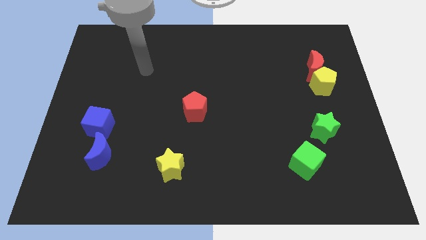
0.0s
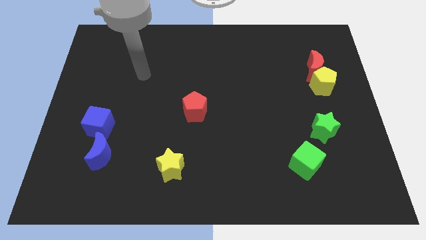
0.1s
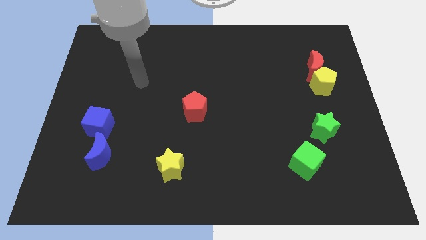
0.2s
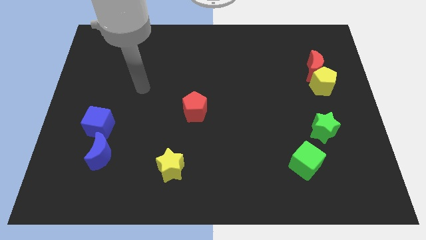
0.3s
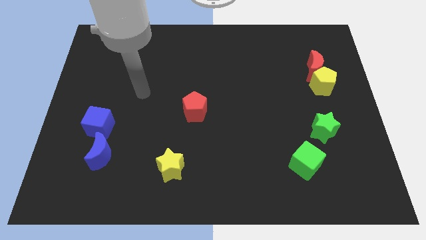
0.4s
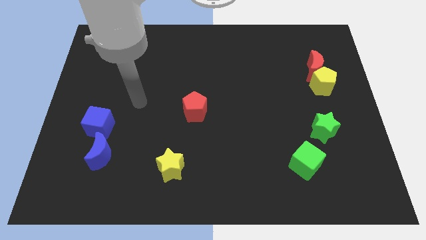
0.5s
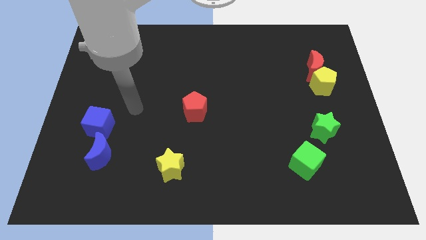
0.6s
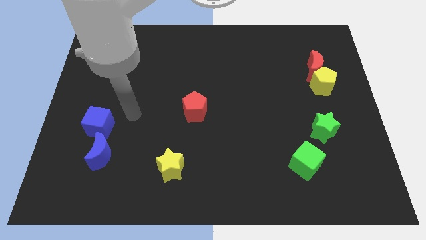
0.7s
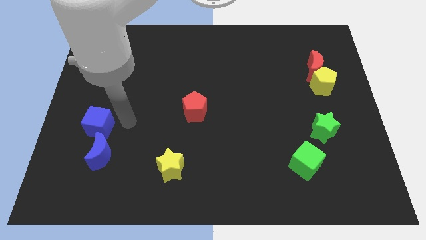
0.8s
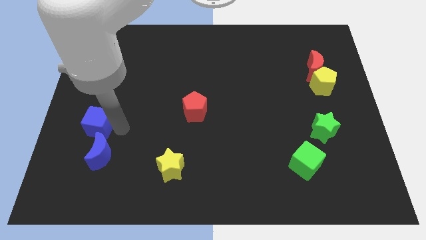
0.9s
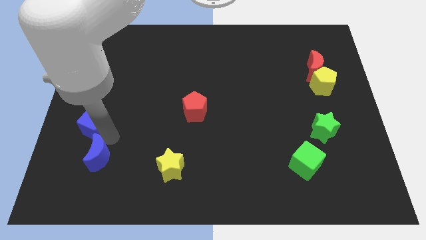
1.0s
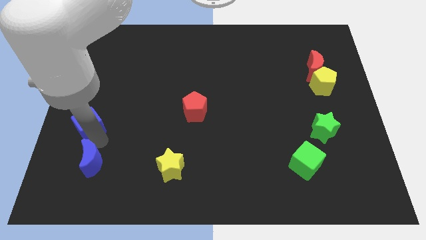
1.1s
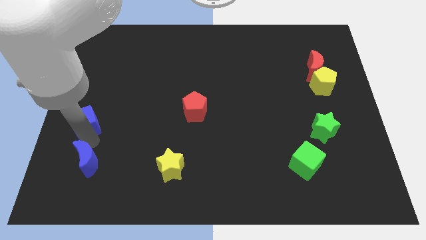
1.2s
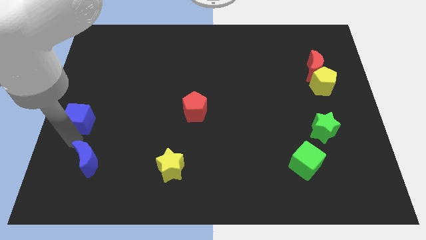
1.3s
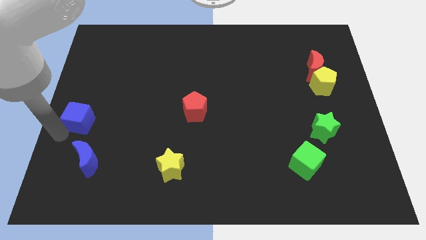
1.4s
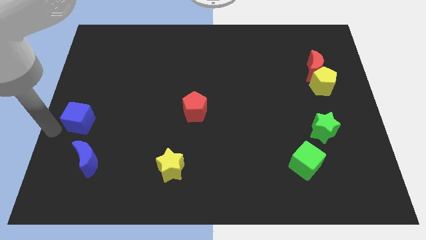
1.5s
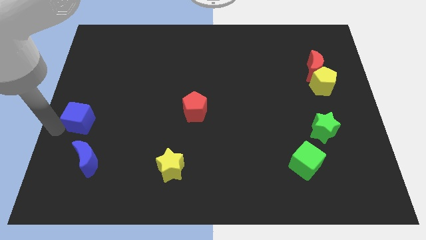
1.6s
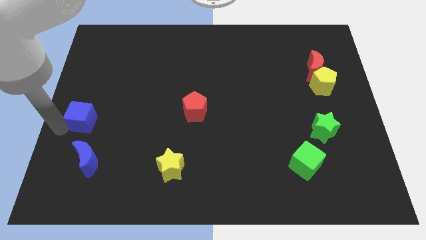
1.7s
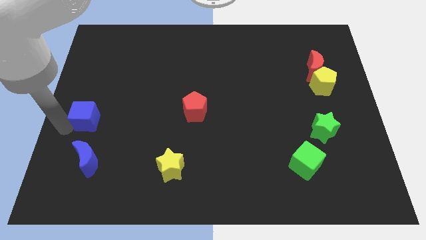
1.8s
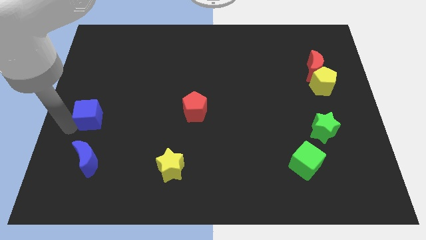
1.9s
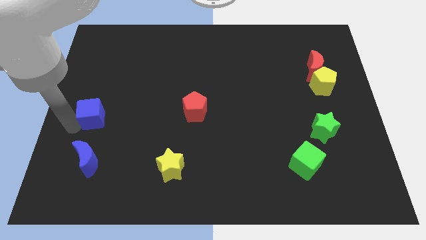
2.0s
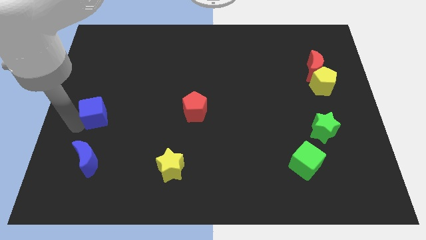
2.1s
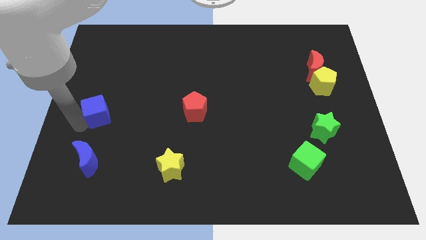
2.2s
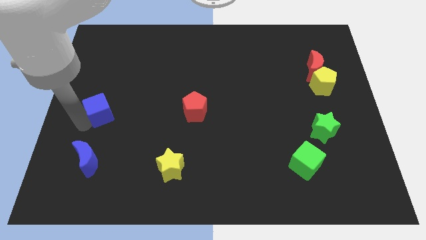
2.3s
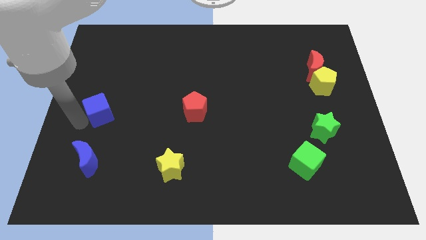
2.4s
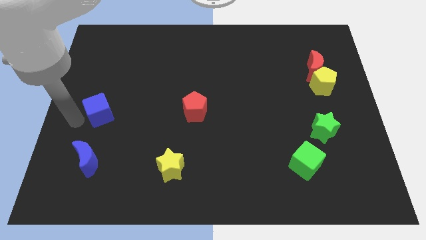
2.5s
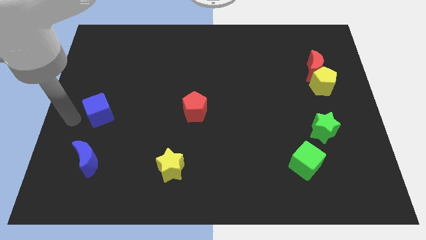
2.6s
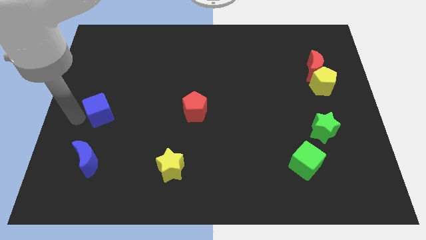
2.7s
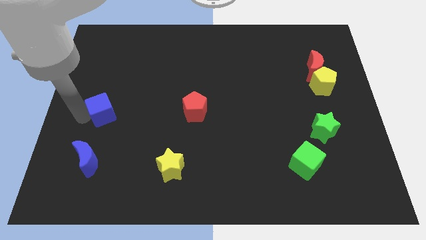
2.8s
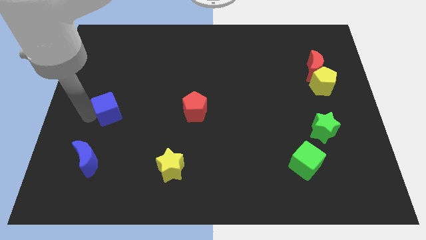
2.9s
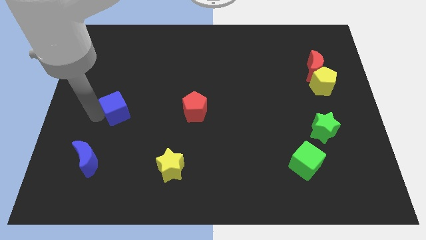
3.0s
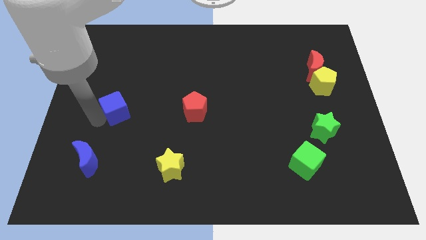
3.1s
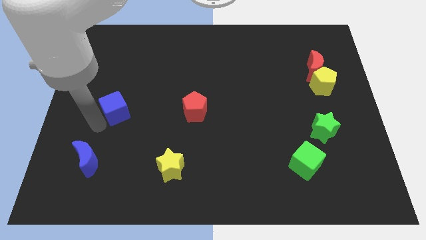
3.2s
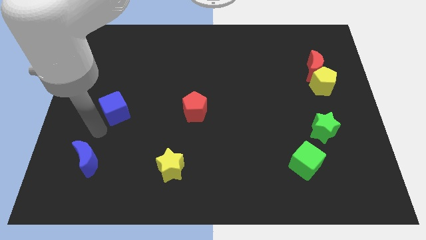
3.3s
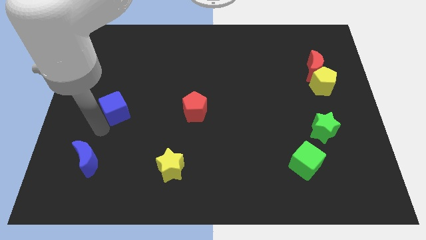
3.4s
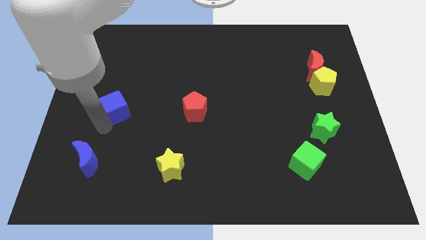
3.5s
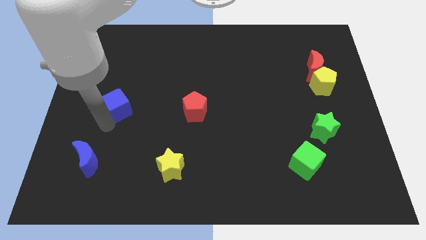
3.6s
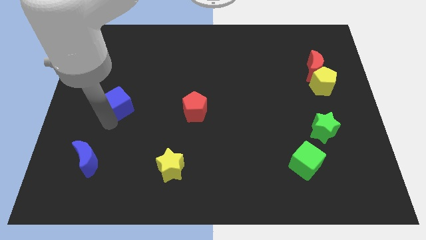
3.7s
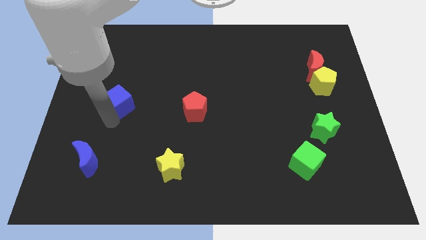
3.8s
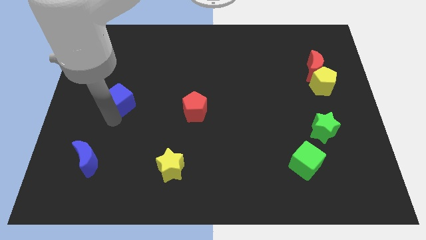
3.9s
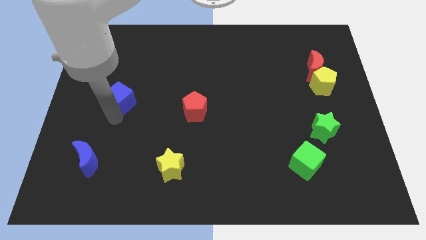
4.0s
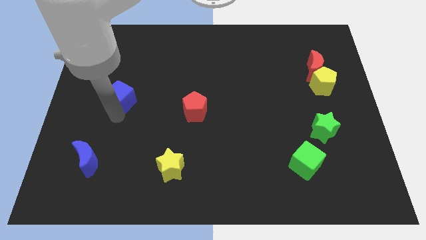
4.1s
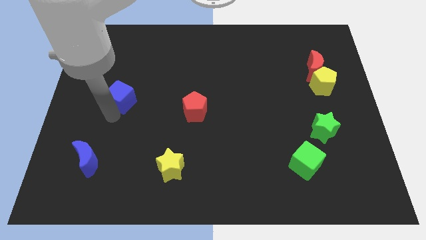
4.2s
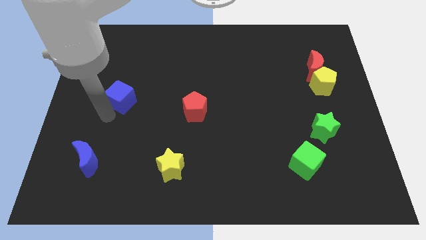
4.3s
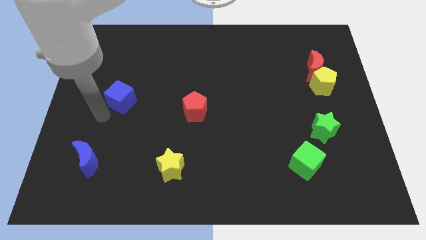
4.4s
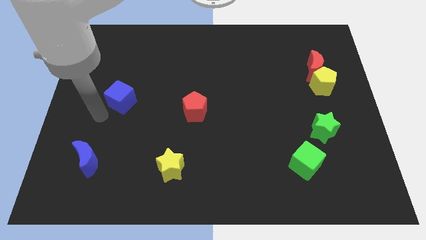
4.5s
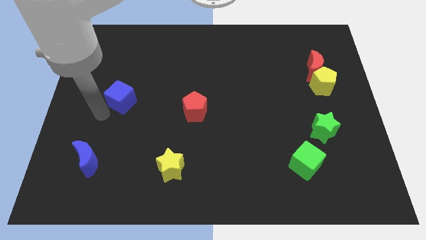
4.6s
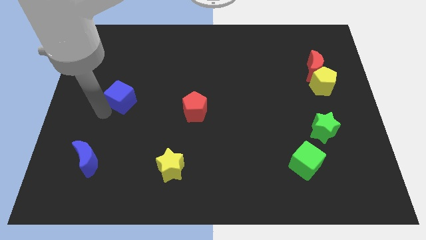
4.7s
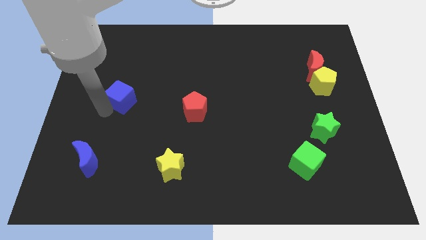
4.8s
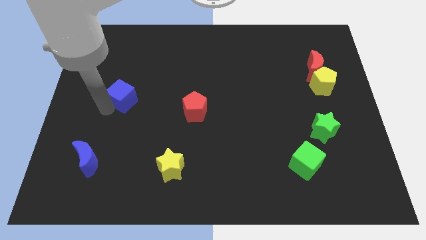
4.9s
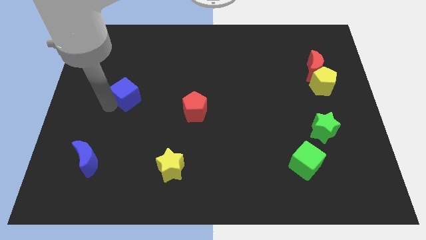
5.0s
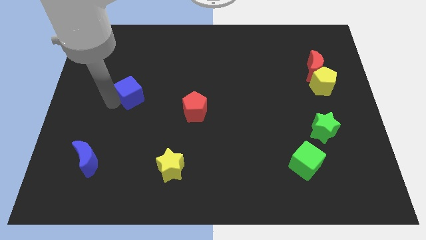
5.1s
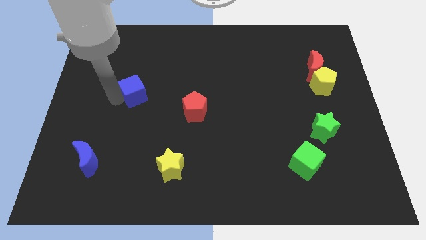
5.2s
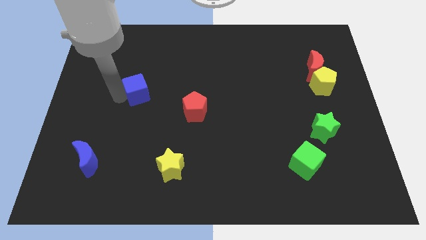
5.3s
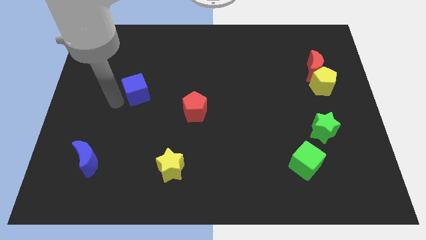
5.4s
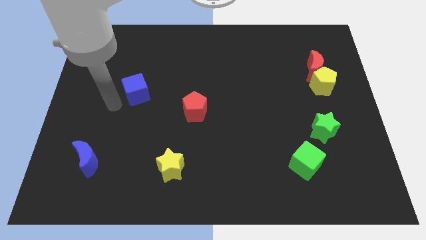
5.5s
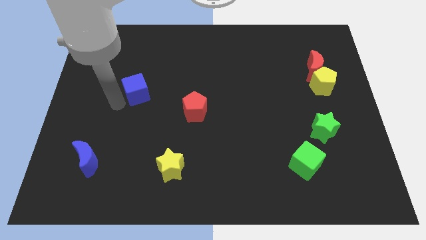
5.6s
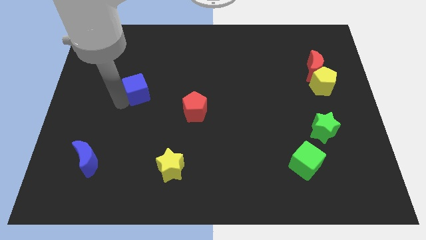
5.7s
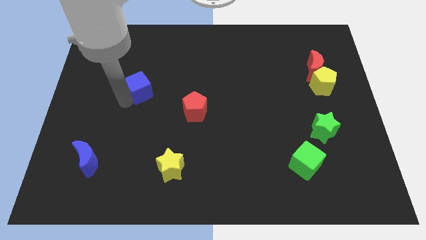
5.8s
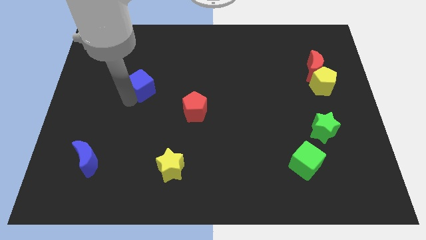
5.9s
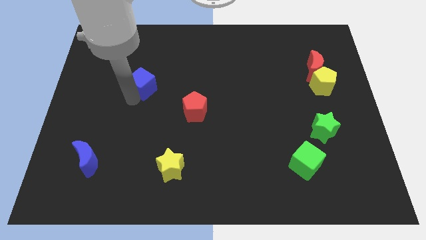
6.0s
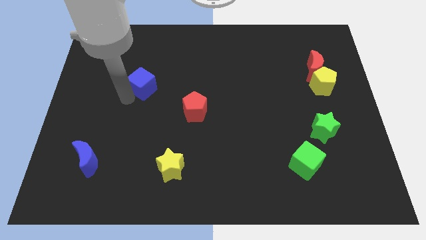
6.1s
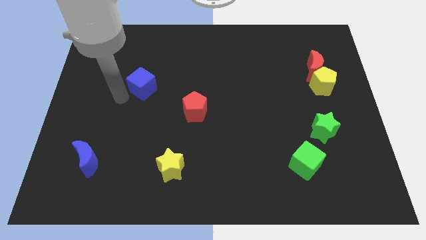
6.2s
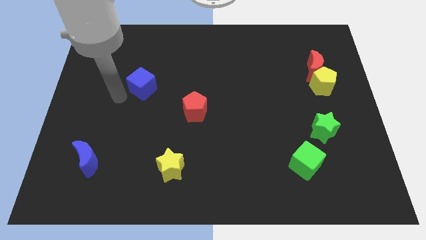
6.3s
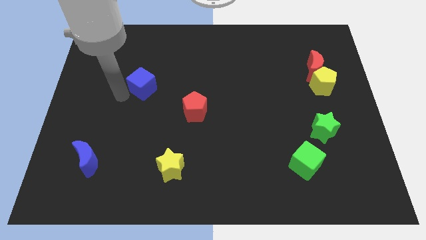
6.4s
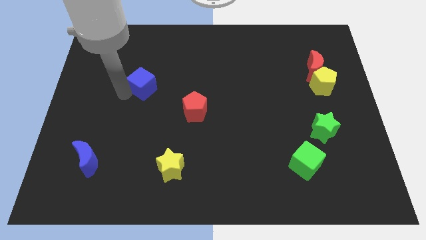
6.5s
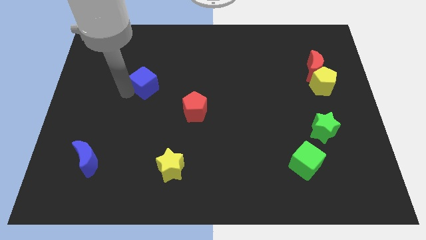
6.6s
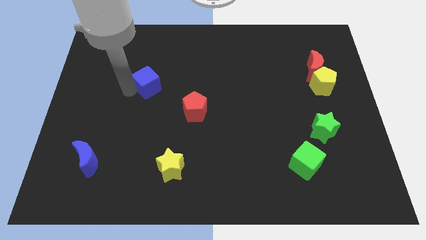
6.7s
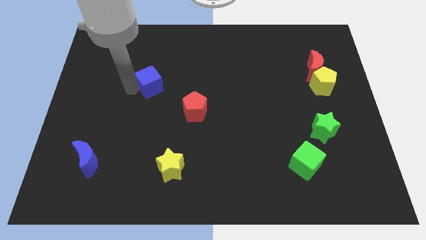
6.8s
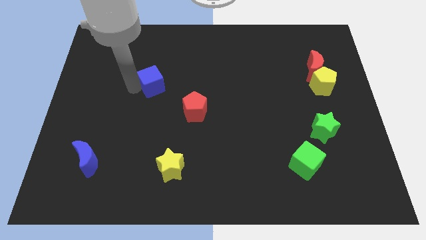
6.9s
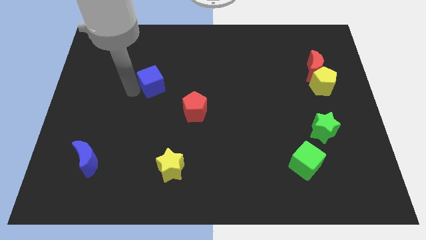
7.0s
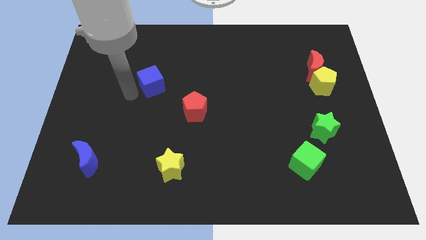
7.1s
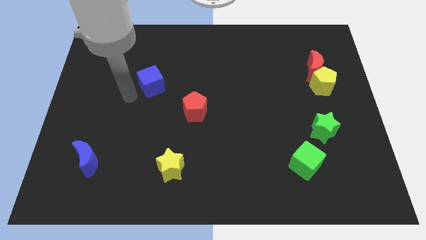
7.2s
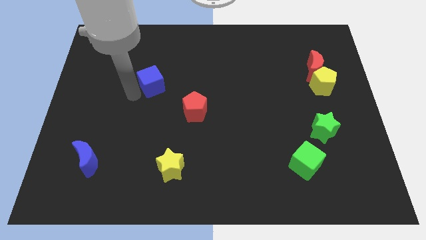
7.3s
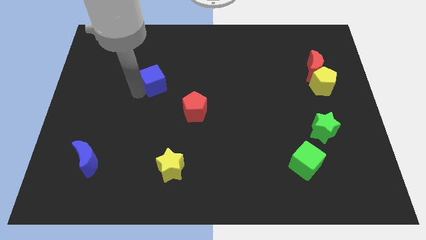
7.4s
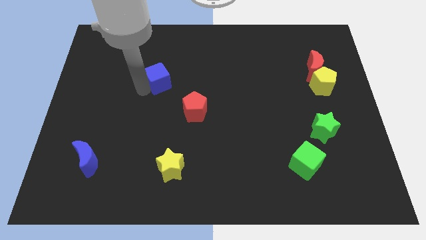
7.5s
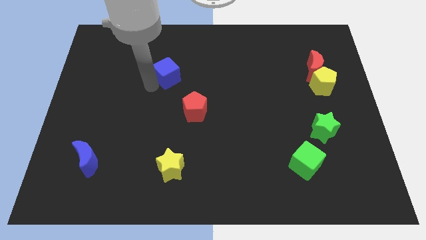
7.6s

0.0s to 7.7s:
move the blue cube diagonally up and to the right

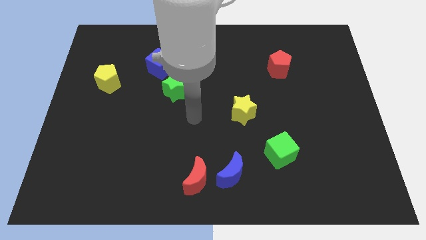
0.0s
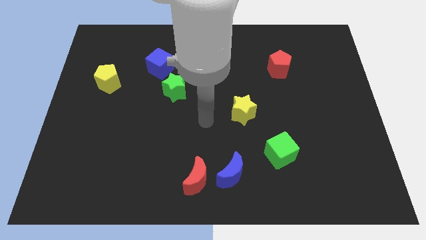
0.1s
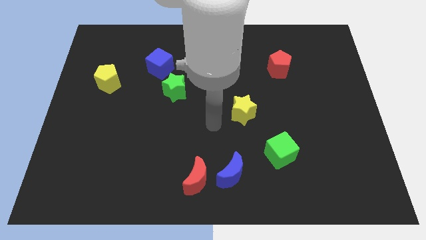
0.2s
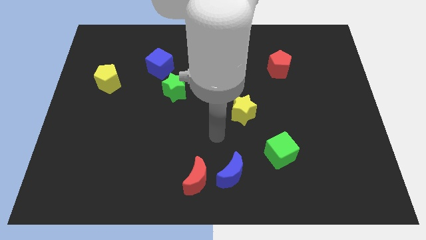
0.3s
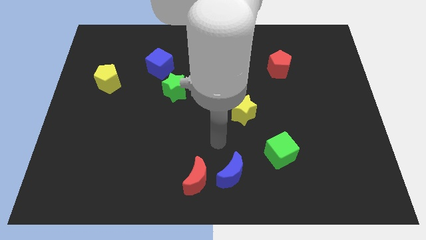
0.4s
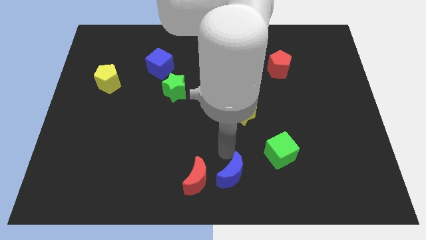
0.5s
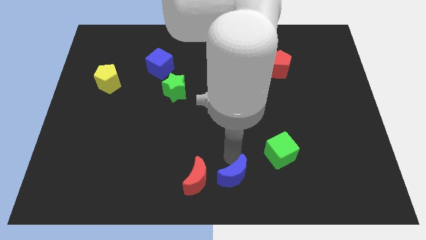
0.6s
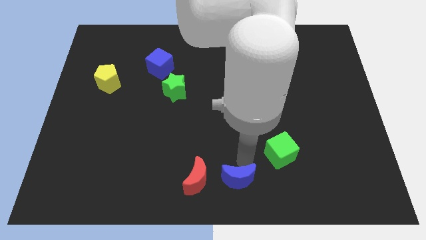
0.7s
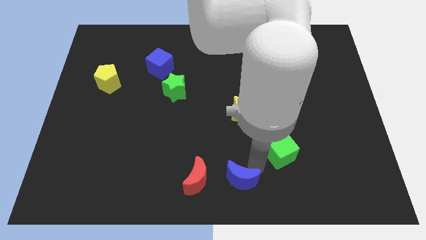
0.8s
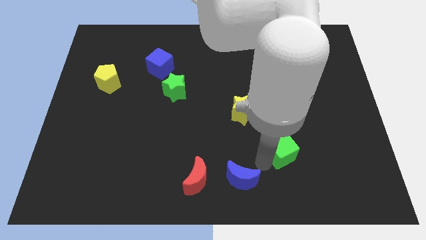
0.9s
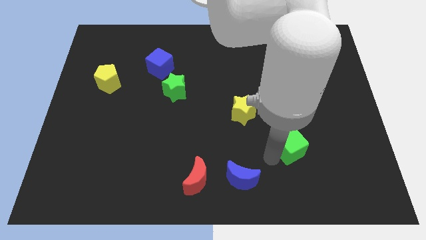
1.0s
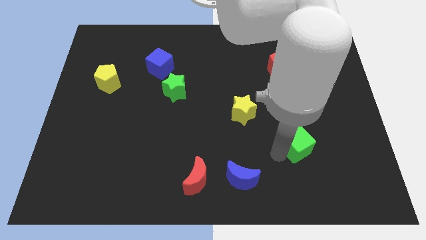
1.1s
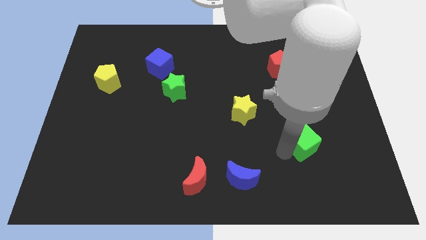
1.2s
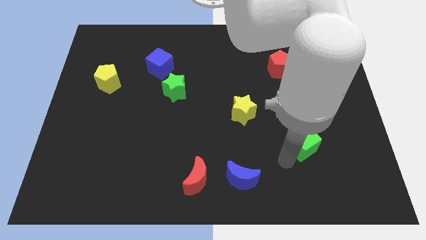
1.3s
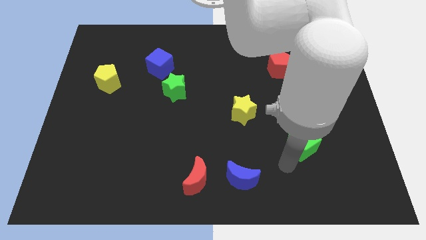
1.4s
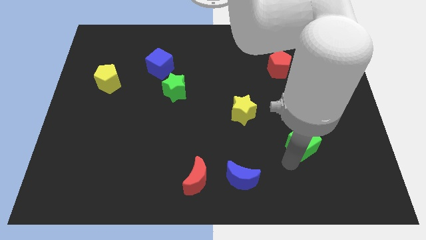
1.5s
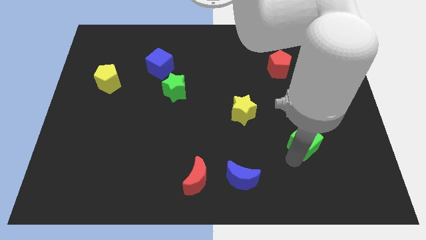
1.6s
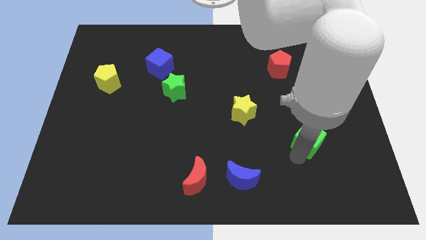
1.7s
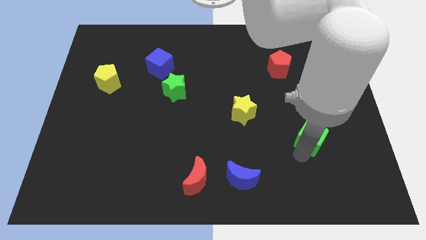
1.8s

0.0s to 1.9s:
slide the green cube diagonally up and right slightly
